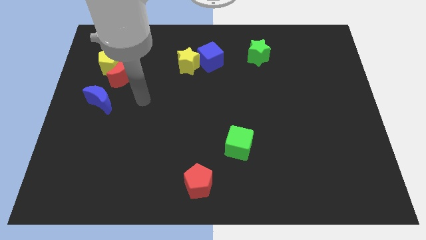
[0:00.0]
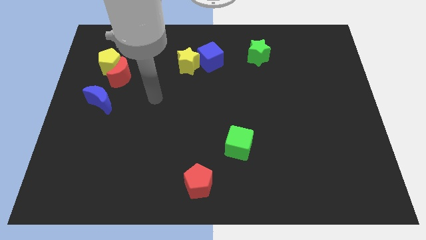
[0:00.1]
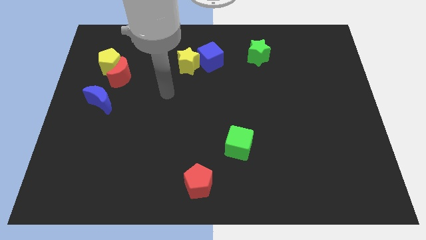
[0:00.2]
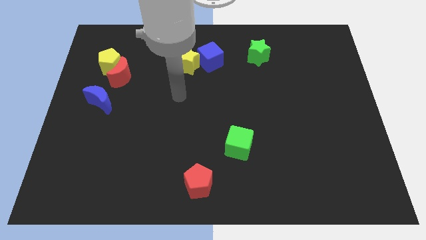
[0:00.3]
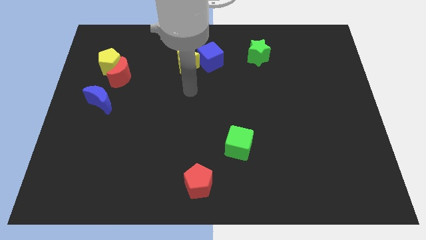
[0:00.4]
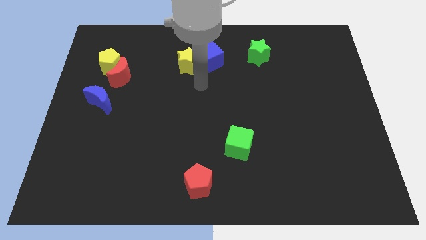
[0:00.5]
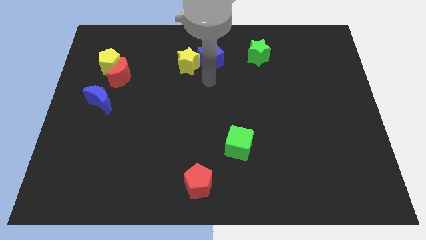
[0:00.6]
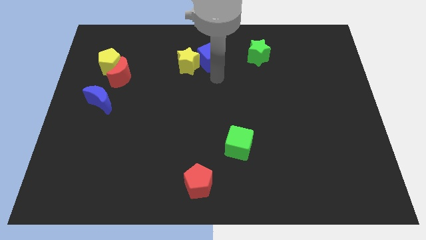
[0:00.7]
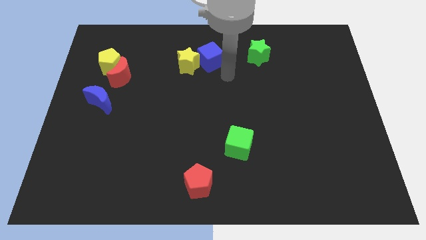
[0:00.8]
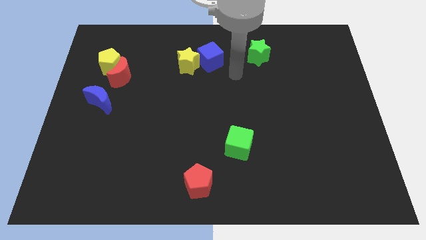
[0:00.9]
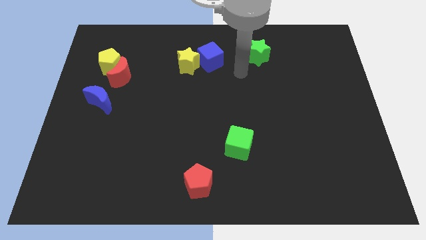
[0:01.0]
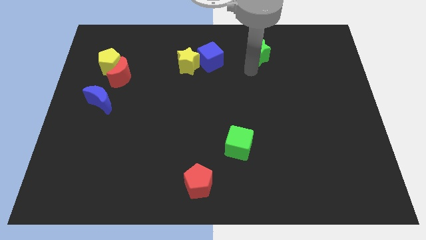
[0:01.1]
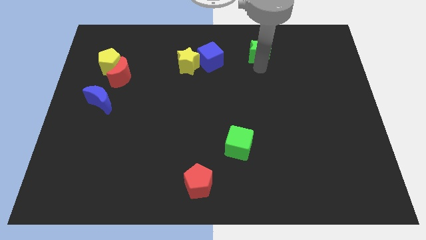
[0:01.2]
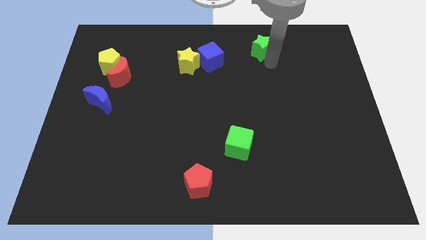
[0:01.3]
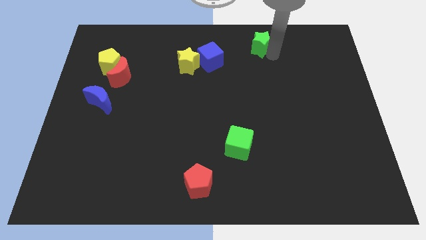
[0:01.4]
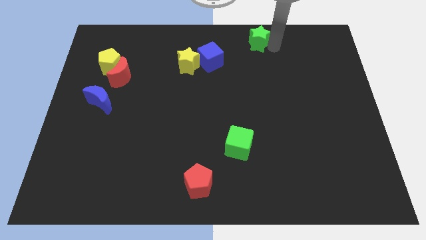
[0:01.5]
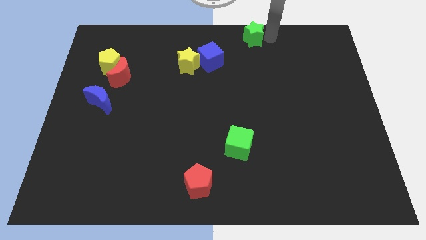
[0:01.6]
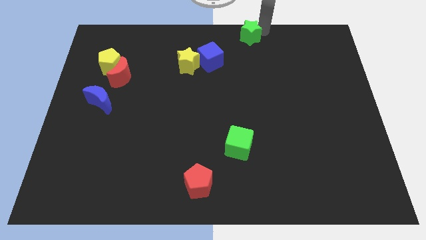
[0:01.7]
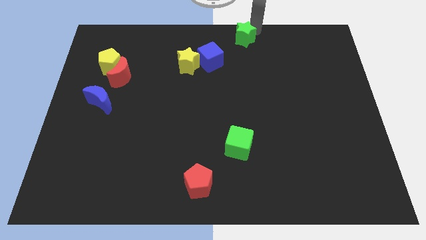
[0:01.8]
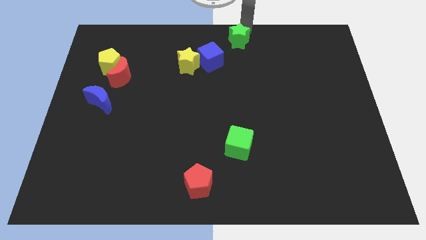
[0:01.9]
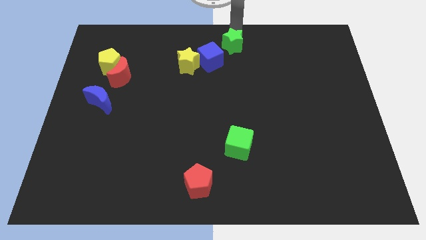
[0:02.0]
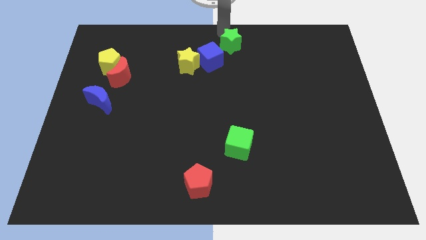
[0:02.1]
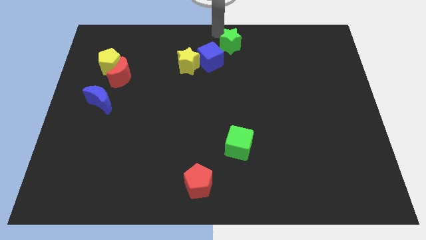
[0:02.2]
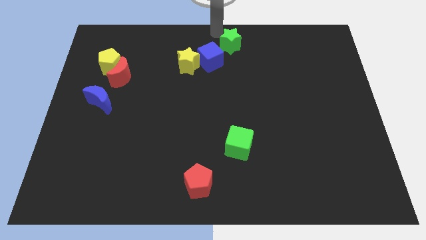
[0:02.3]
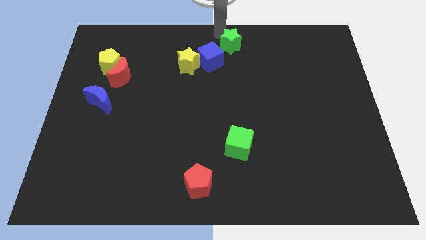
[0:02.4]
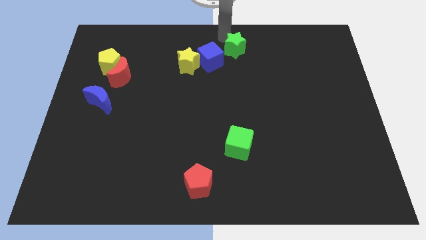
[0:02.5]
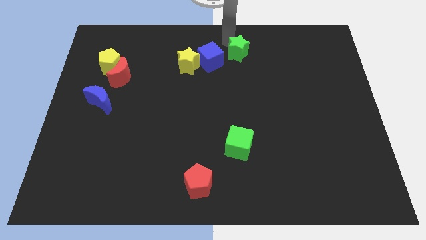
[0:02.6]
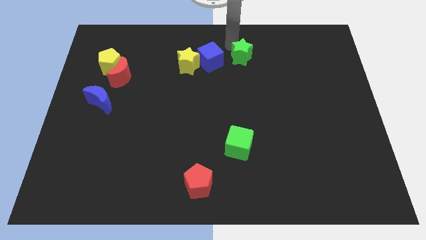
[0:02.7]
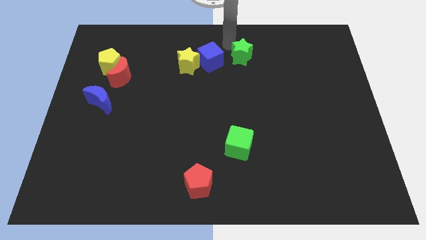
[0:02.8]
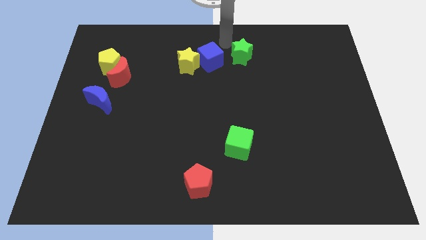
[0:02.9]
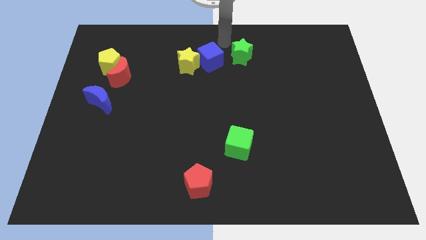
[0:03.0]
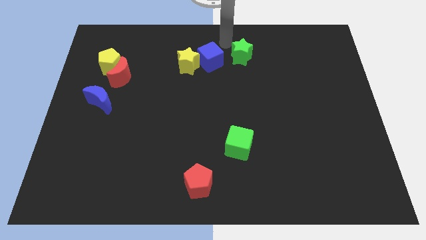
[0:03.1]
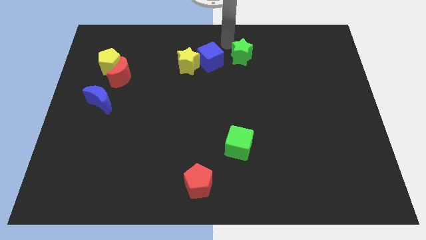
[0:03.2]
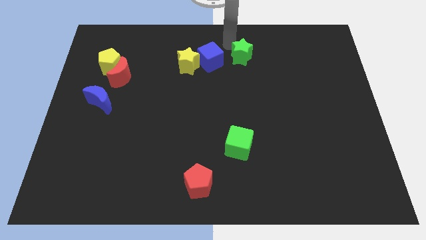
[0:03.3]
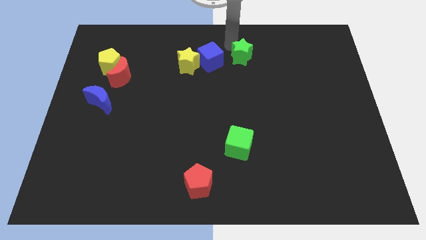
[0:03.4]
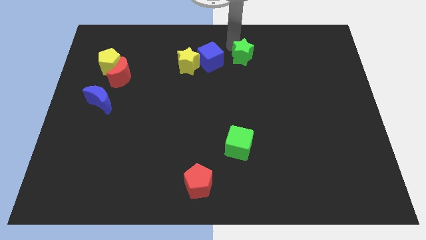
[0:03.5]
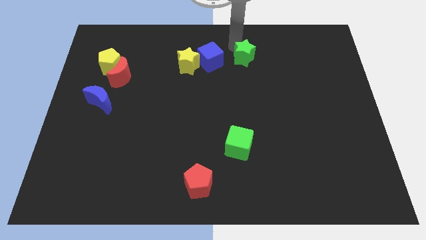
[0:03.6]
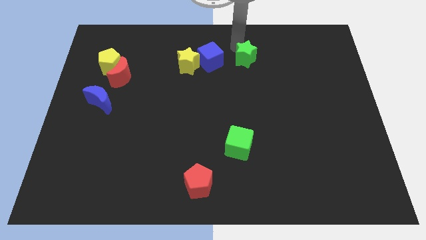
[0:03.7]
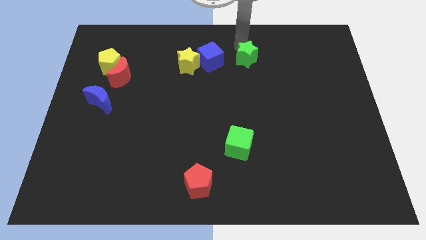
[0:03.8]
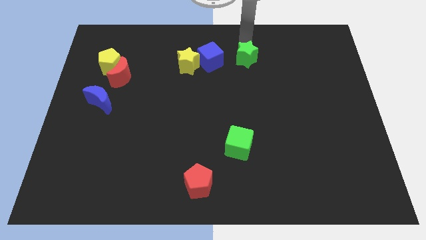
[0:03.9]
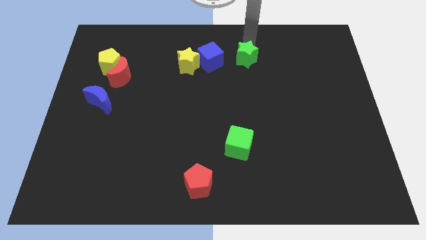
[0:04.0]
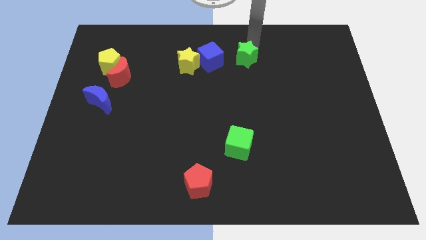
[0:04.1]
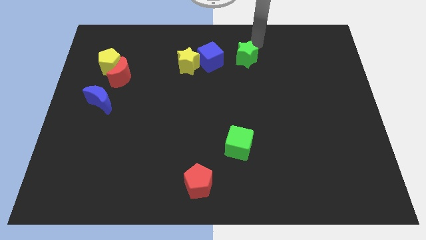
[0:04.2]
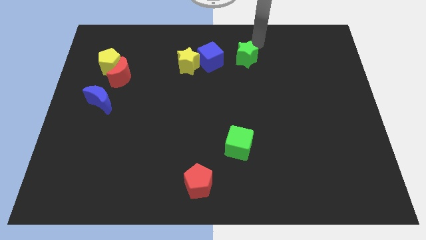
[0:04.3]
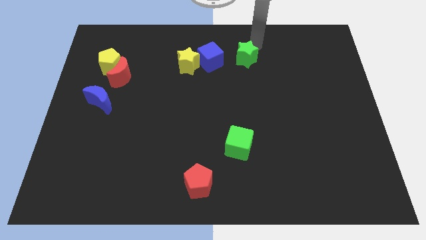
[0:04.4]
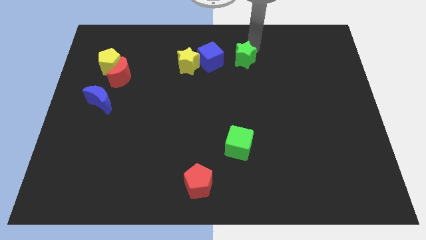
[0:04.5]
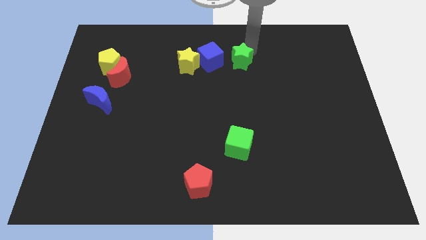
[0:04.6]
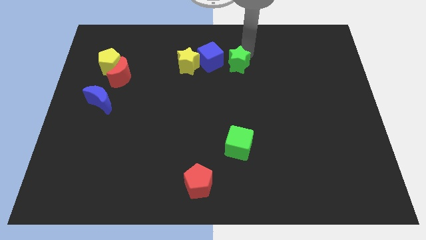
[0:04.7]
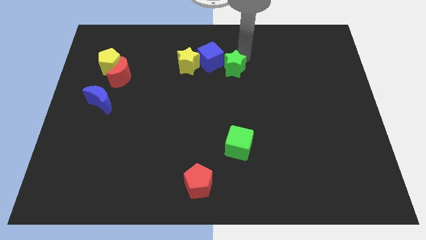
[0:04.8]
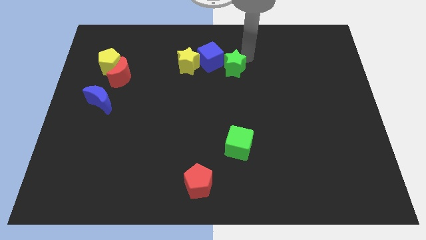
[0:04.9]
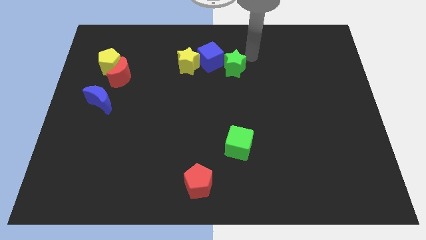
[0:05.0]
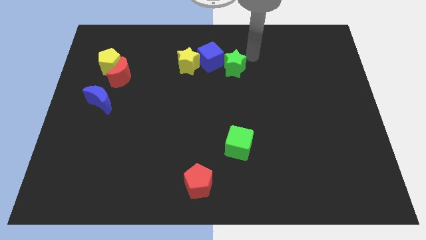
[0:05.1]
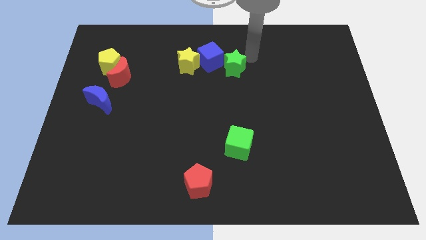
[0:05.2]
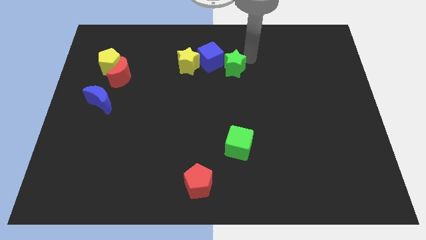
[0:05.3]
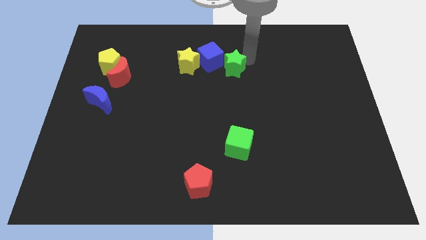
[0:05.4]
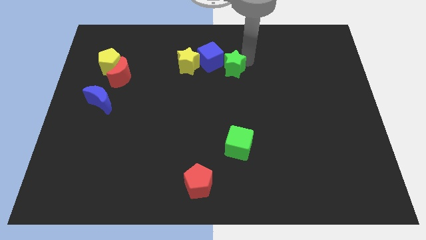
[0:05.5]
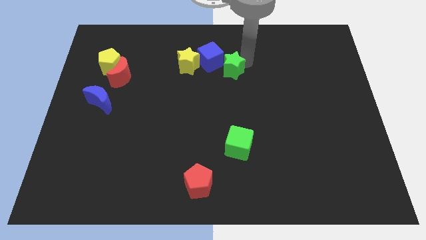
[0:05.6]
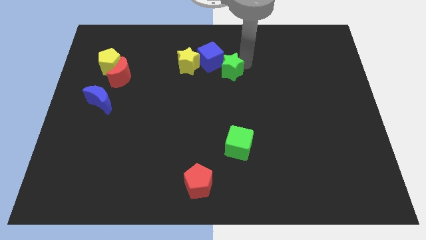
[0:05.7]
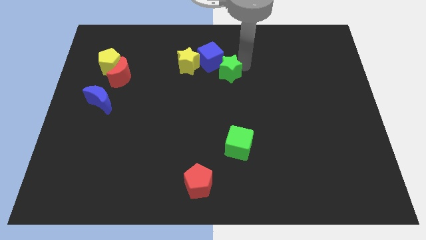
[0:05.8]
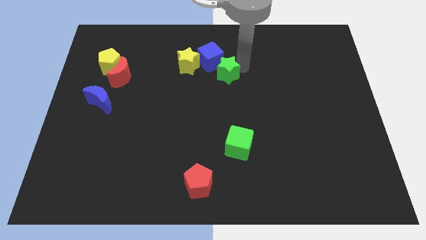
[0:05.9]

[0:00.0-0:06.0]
move the green star diagonally down and to the right of the yellow star

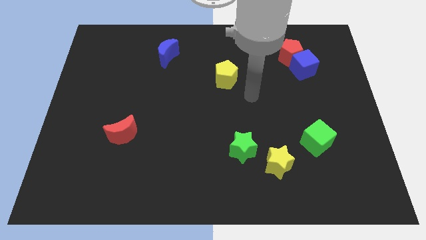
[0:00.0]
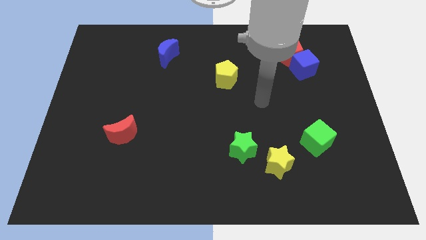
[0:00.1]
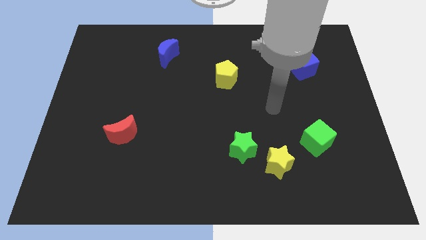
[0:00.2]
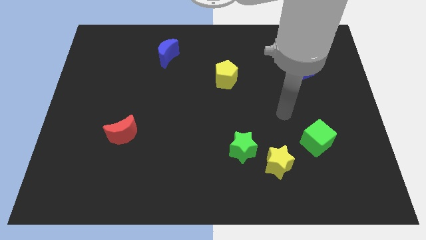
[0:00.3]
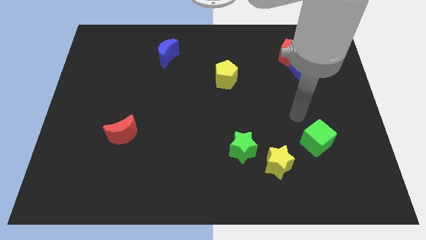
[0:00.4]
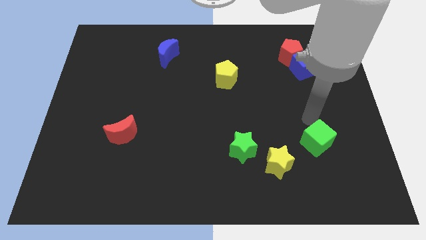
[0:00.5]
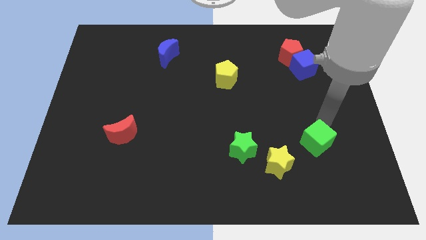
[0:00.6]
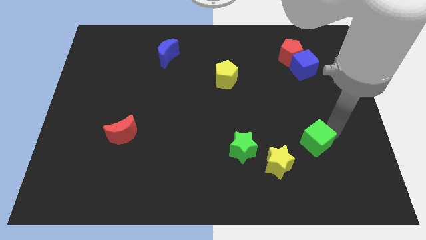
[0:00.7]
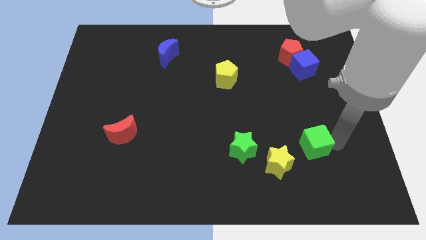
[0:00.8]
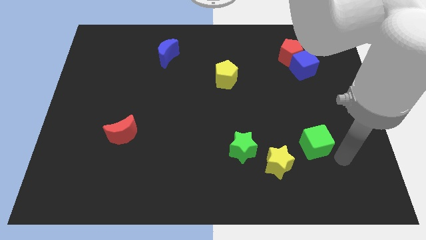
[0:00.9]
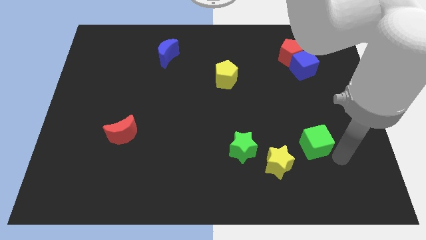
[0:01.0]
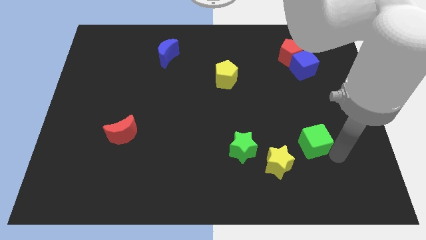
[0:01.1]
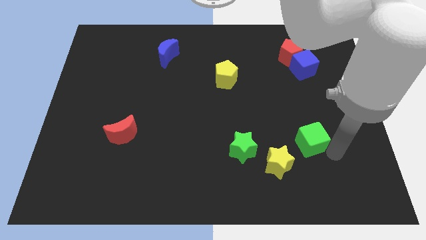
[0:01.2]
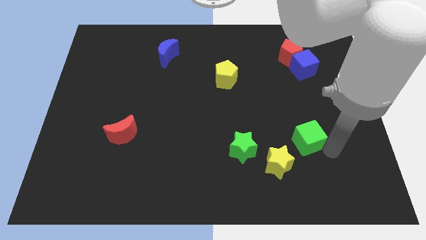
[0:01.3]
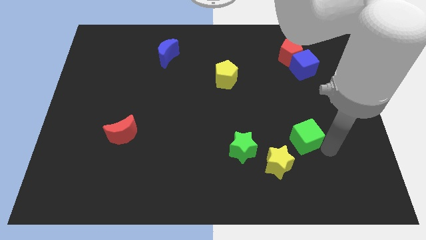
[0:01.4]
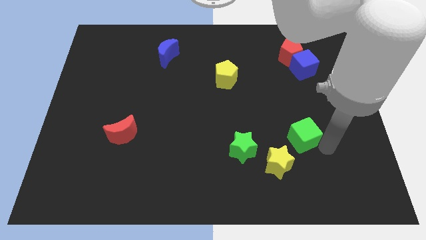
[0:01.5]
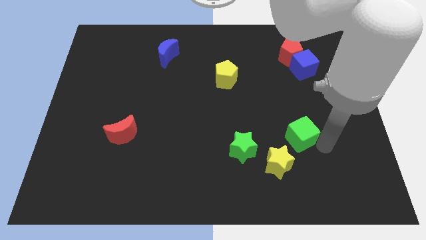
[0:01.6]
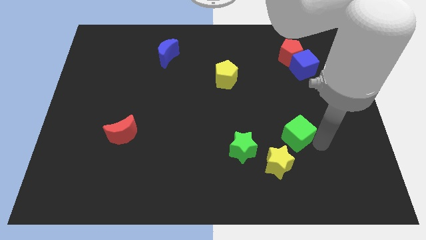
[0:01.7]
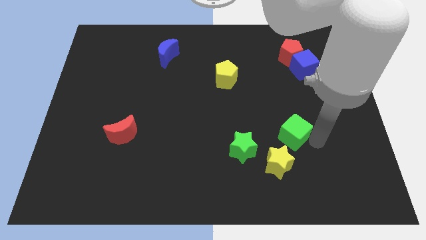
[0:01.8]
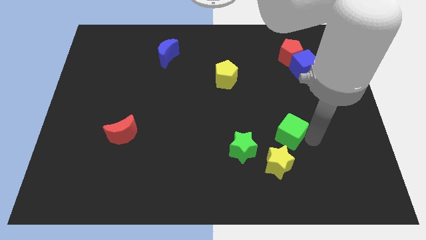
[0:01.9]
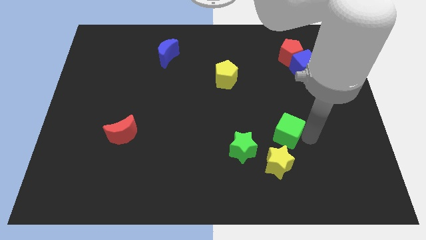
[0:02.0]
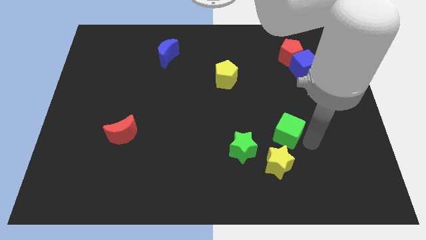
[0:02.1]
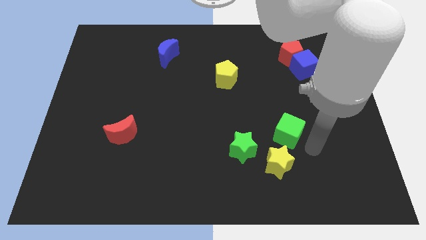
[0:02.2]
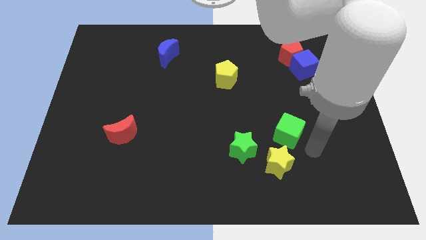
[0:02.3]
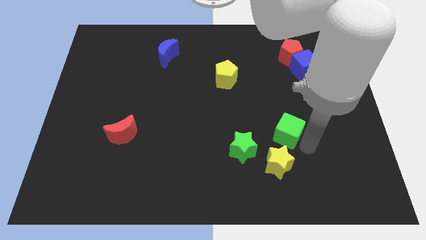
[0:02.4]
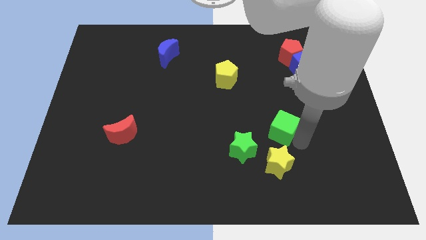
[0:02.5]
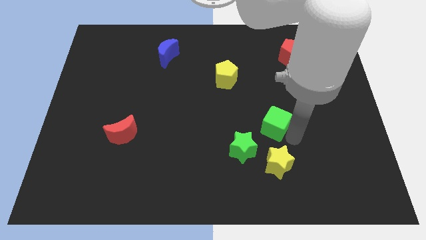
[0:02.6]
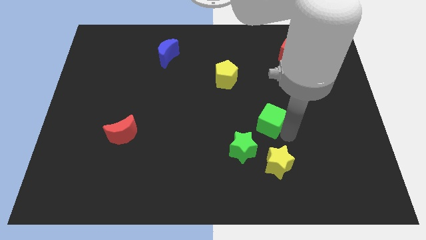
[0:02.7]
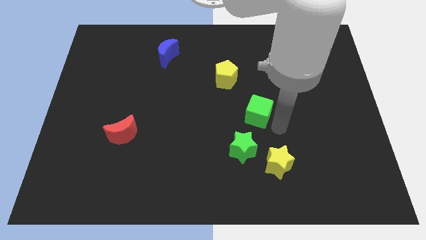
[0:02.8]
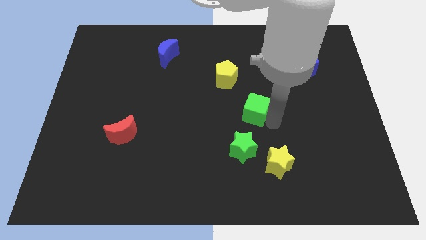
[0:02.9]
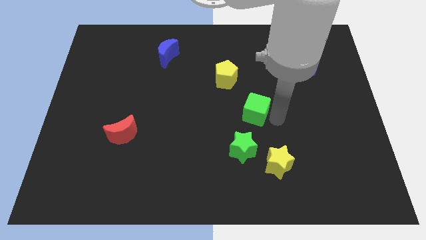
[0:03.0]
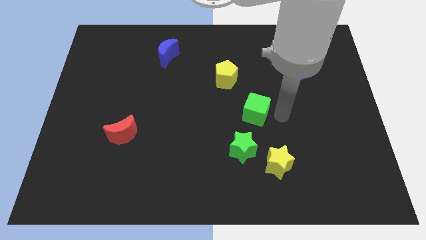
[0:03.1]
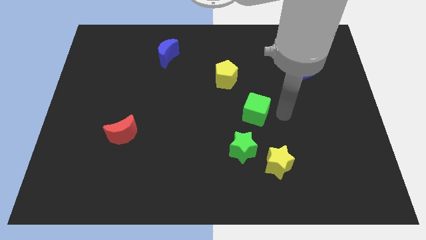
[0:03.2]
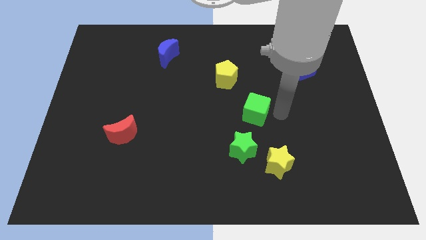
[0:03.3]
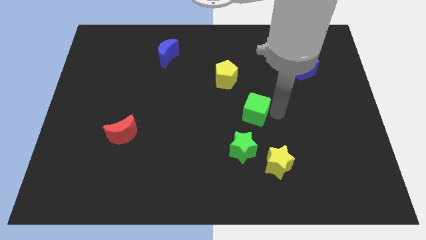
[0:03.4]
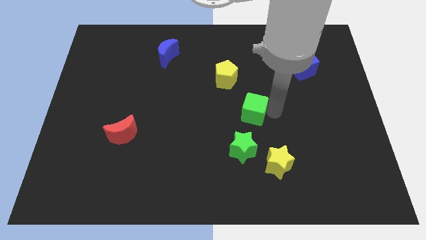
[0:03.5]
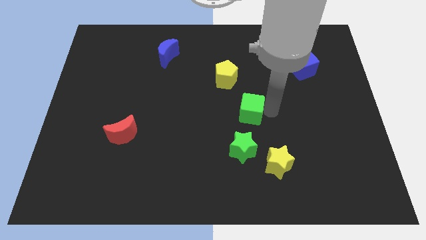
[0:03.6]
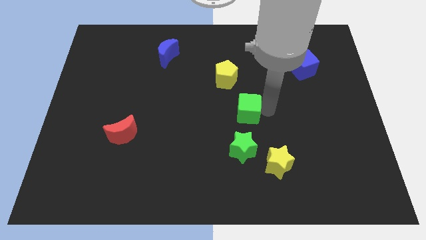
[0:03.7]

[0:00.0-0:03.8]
slide the green cube to the bottom side of the yellow pentagon
